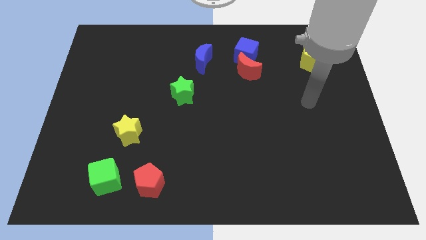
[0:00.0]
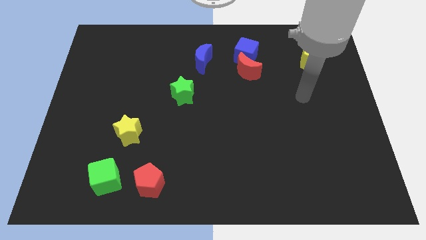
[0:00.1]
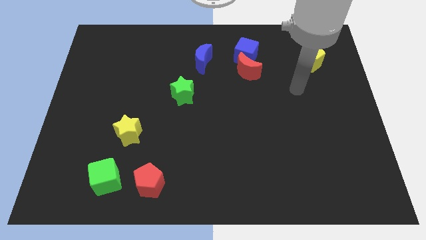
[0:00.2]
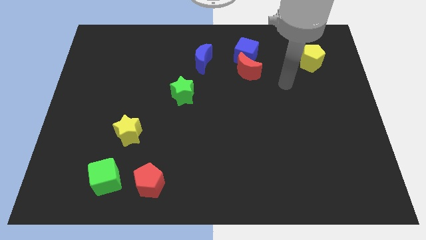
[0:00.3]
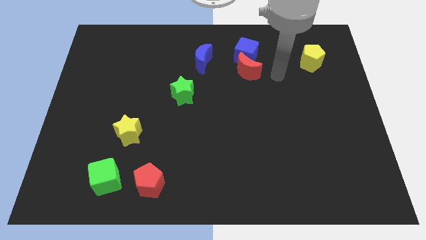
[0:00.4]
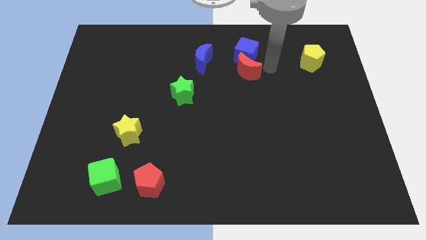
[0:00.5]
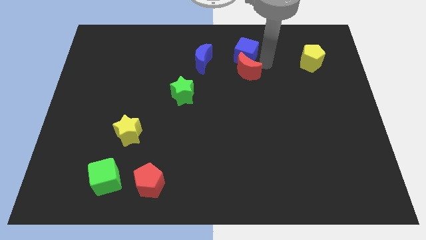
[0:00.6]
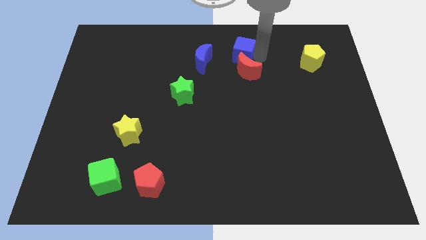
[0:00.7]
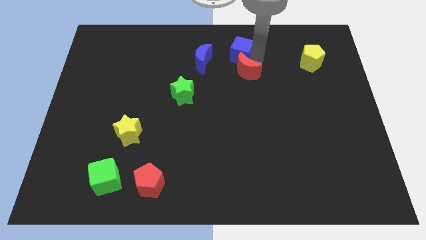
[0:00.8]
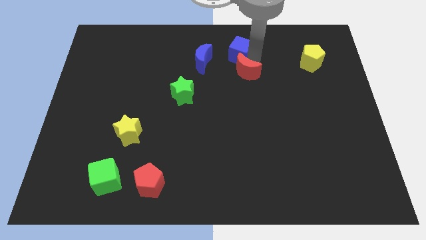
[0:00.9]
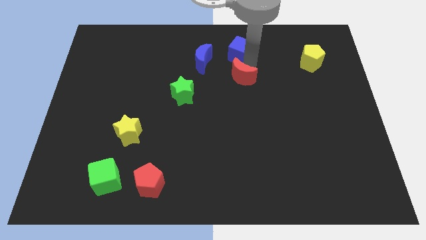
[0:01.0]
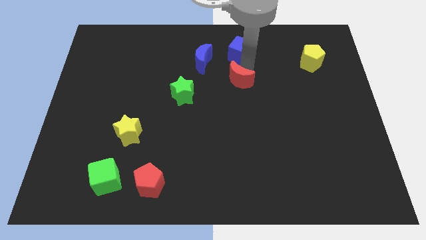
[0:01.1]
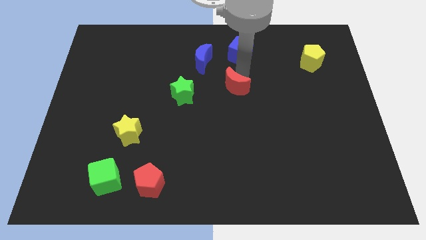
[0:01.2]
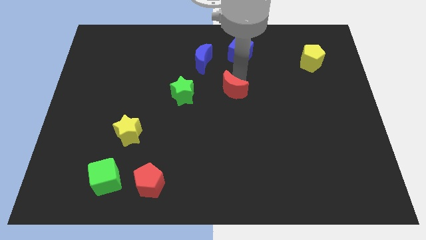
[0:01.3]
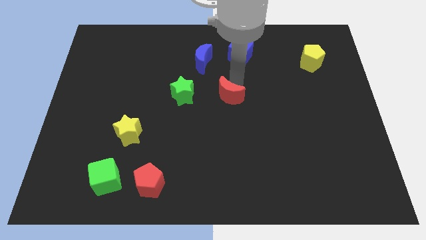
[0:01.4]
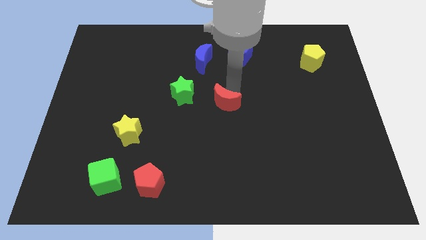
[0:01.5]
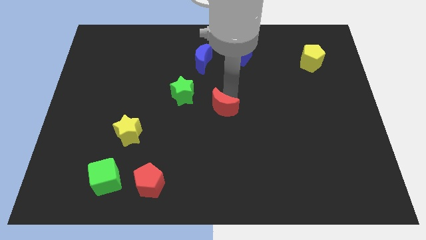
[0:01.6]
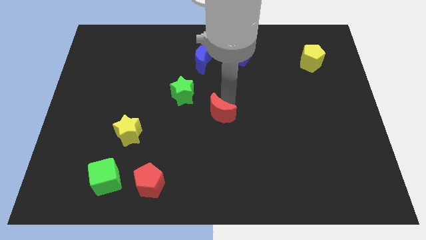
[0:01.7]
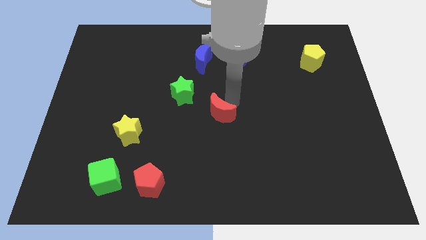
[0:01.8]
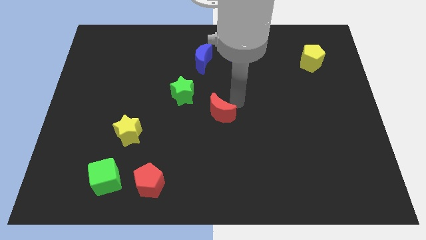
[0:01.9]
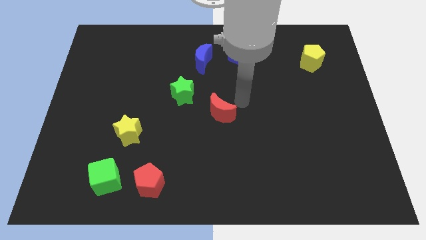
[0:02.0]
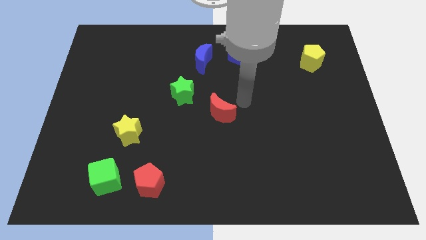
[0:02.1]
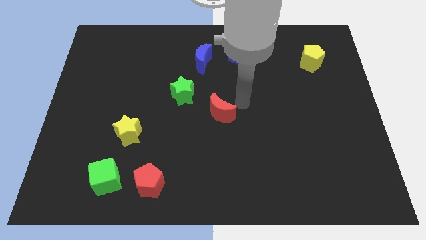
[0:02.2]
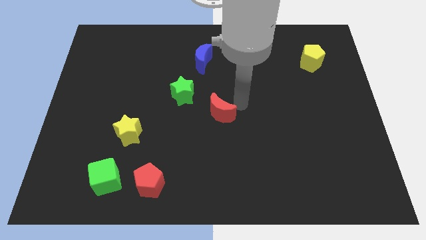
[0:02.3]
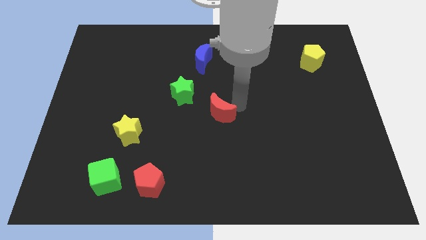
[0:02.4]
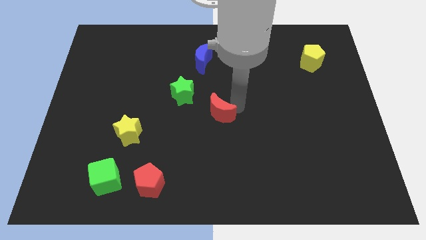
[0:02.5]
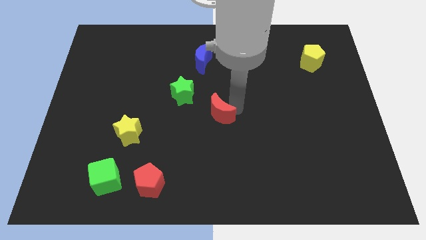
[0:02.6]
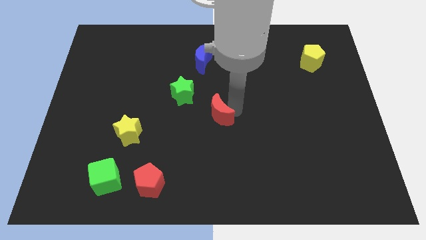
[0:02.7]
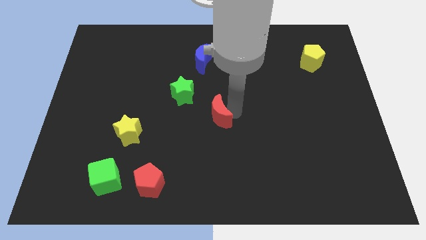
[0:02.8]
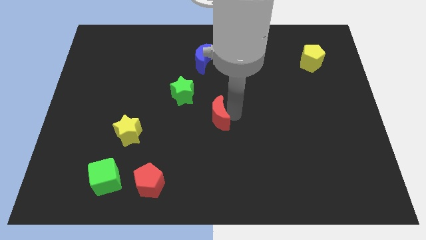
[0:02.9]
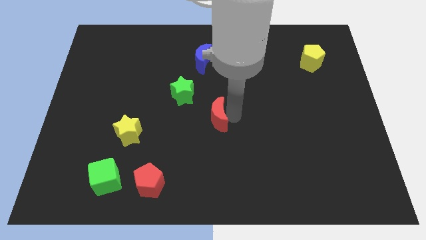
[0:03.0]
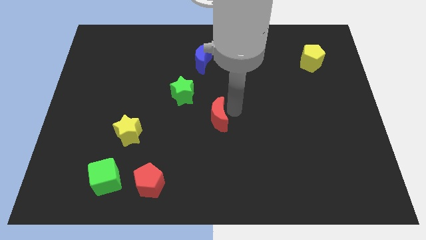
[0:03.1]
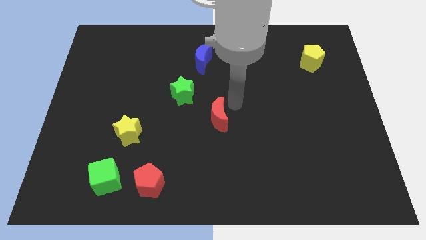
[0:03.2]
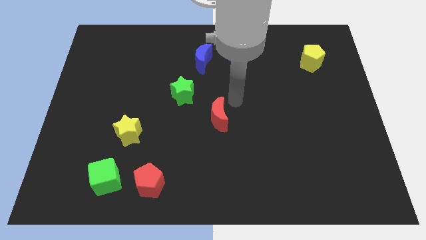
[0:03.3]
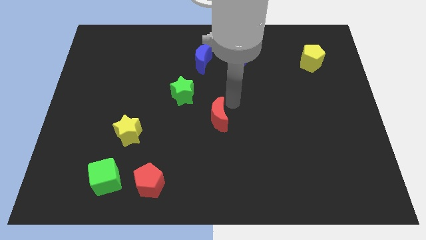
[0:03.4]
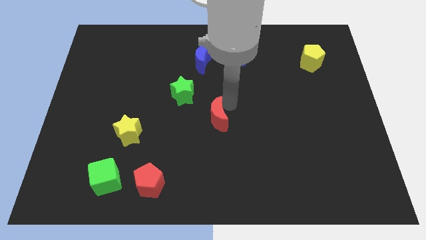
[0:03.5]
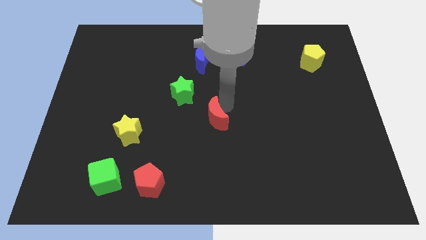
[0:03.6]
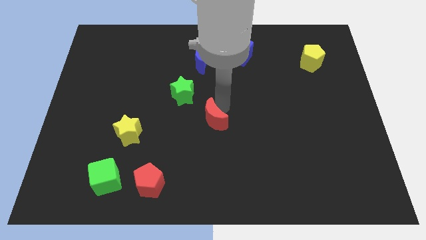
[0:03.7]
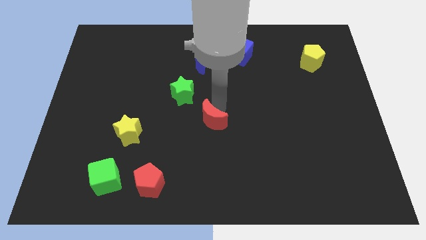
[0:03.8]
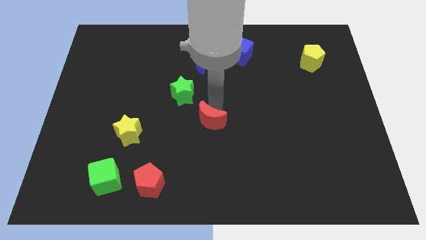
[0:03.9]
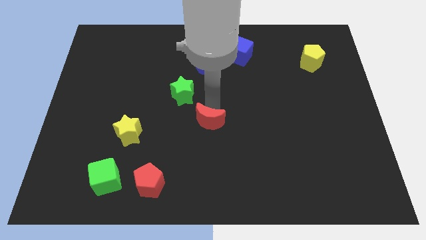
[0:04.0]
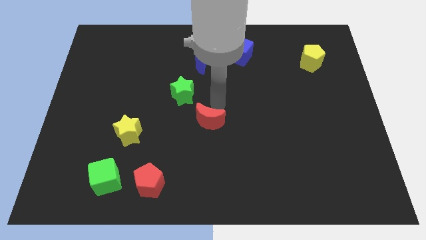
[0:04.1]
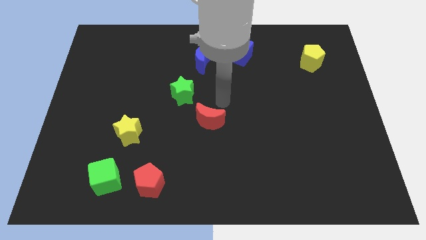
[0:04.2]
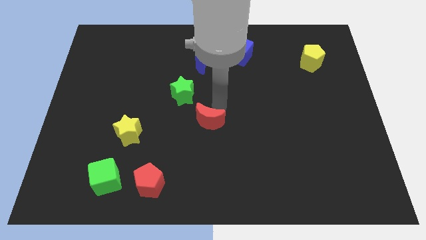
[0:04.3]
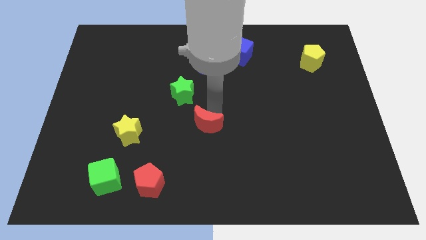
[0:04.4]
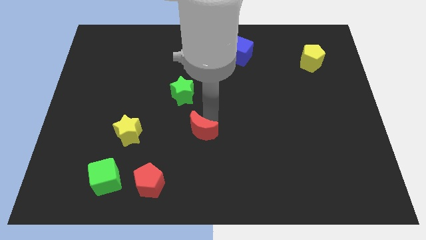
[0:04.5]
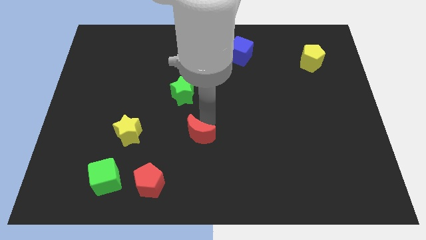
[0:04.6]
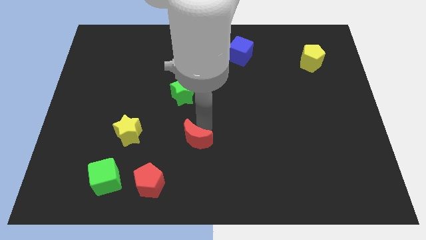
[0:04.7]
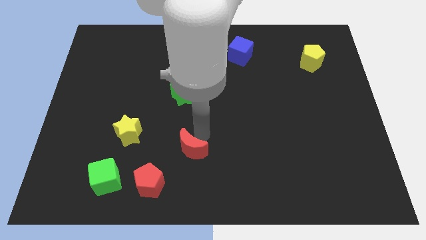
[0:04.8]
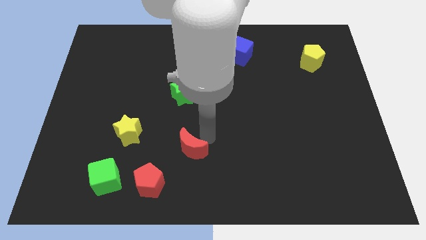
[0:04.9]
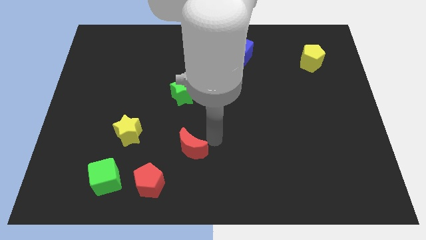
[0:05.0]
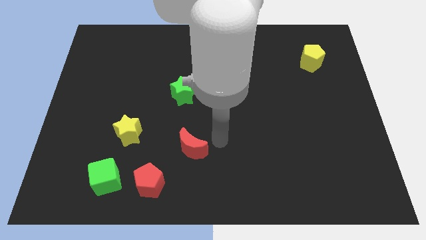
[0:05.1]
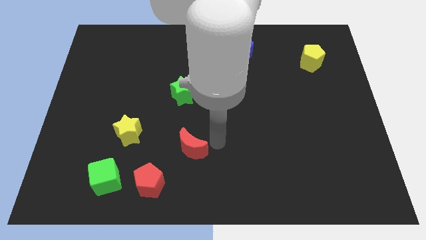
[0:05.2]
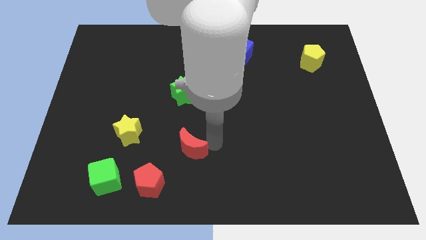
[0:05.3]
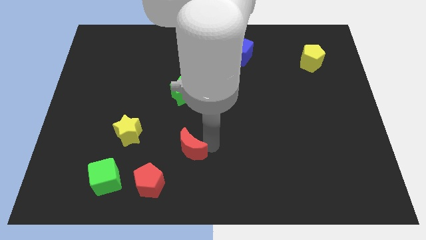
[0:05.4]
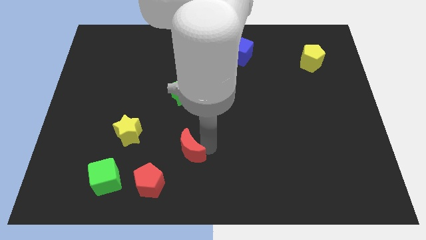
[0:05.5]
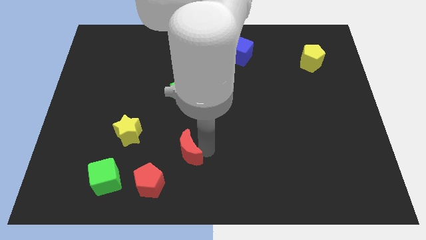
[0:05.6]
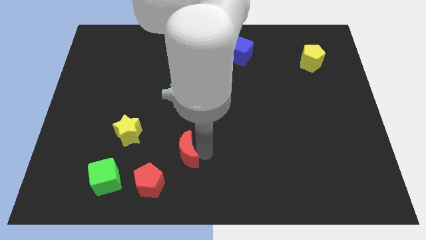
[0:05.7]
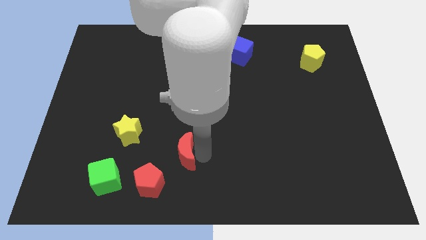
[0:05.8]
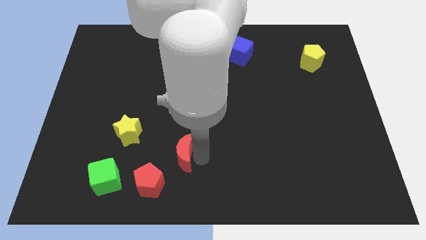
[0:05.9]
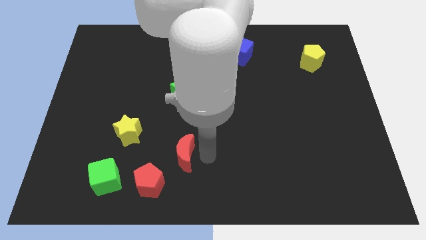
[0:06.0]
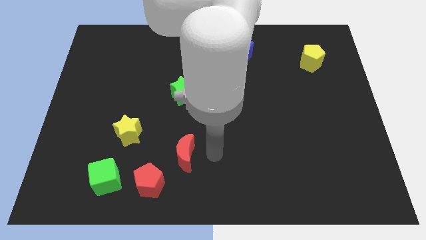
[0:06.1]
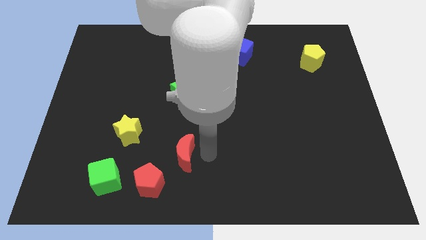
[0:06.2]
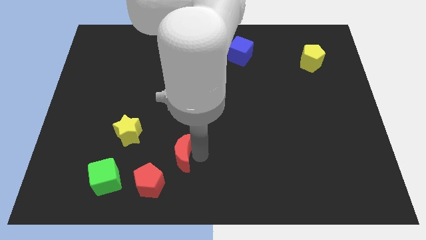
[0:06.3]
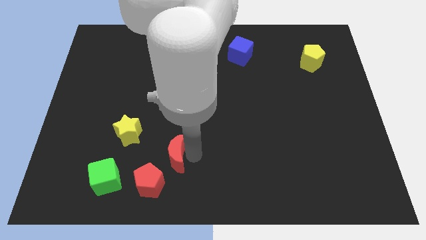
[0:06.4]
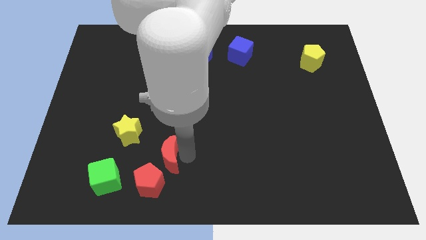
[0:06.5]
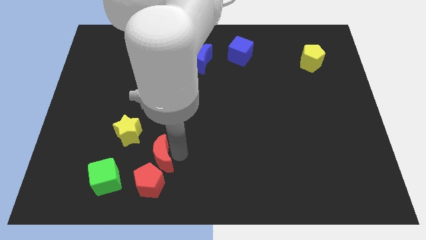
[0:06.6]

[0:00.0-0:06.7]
move the red moon close to the red pentagon
